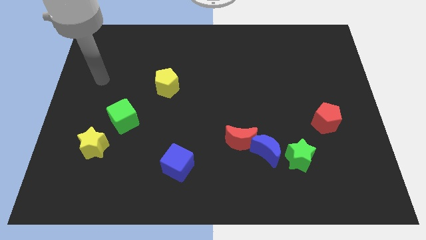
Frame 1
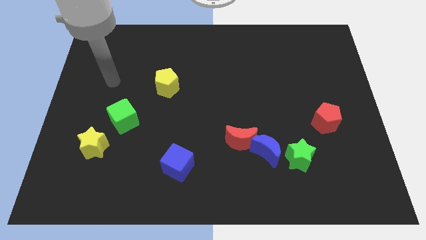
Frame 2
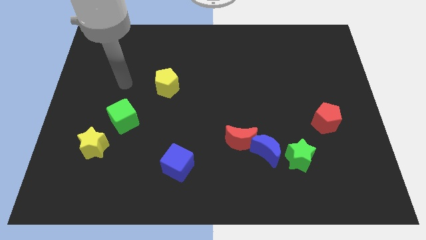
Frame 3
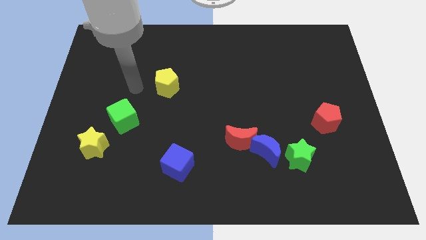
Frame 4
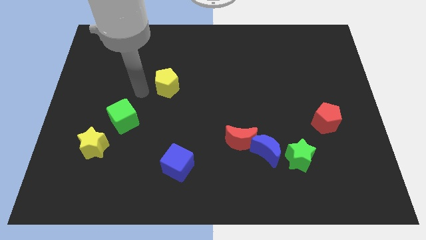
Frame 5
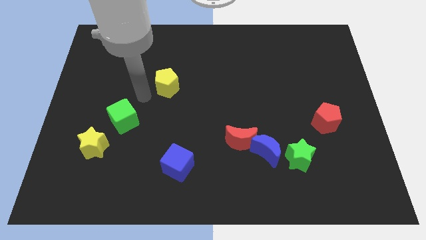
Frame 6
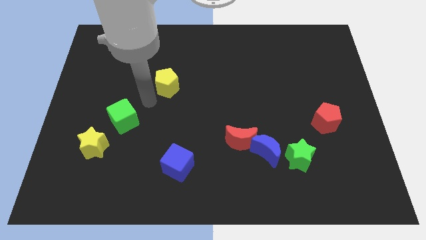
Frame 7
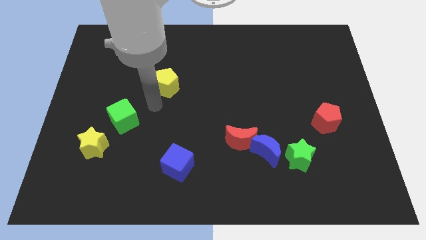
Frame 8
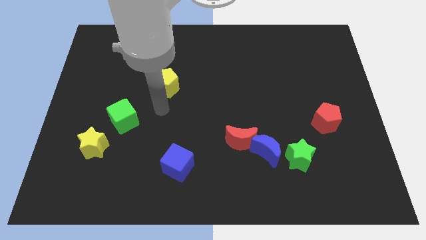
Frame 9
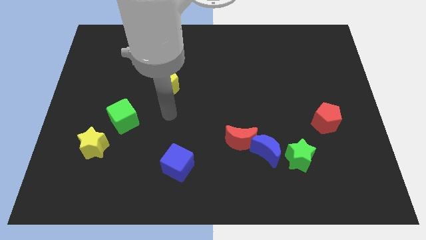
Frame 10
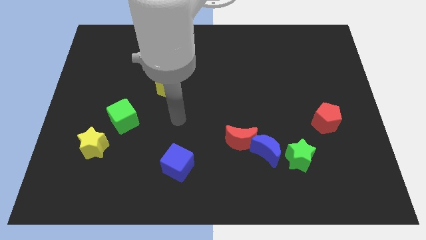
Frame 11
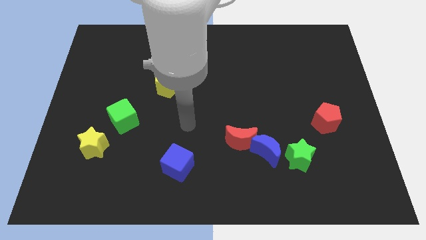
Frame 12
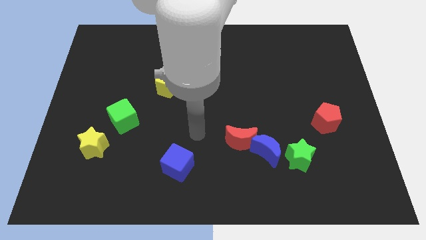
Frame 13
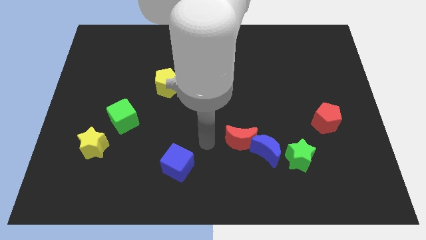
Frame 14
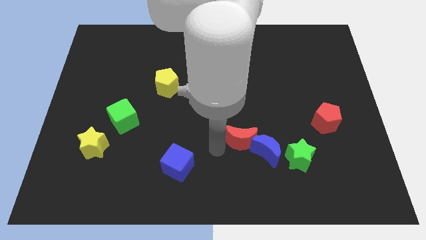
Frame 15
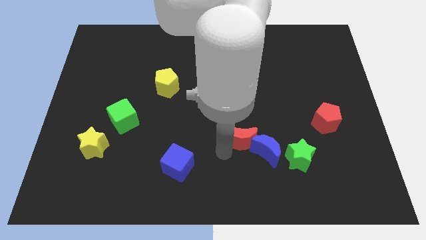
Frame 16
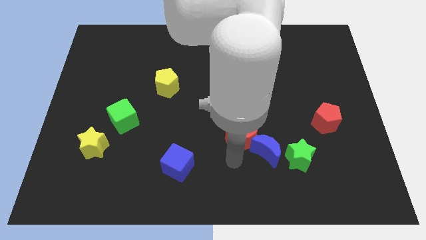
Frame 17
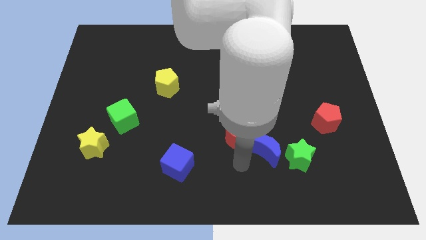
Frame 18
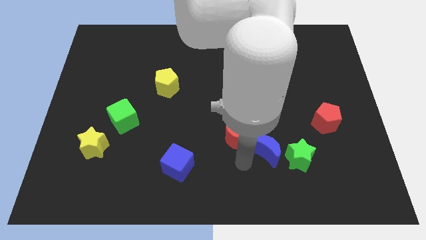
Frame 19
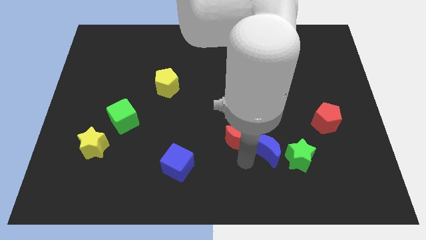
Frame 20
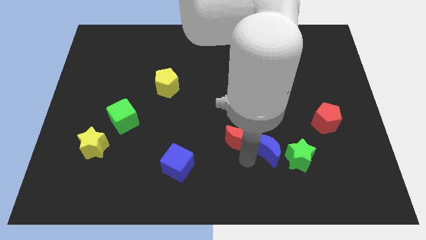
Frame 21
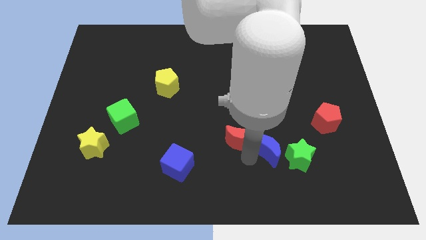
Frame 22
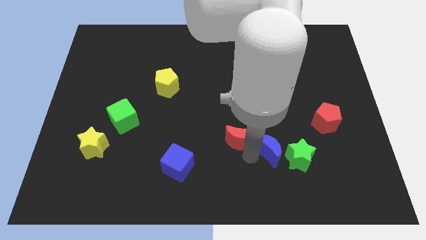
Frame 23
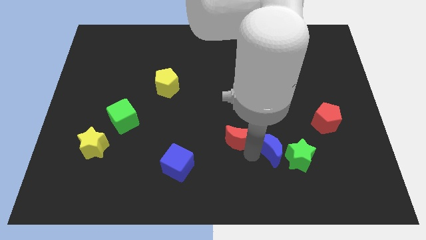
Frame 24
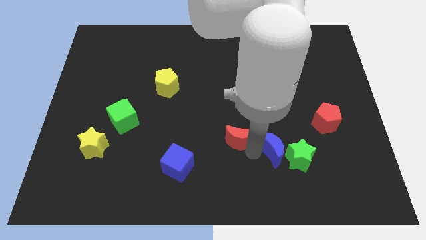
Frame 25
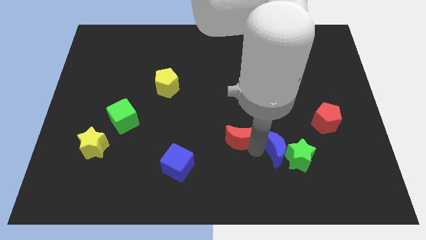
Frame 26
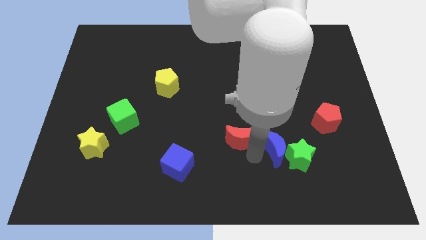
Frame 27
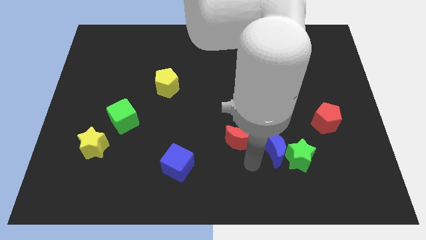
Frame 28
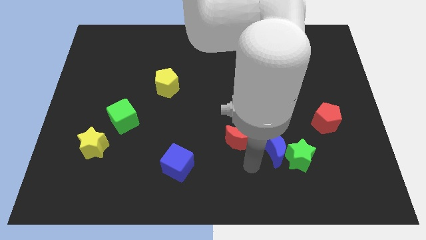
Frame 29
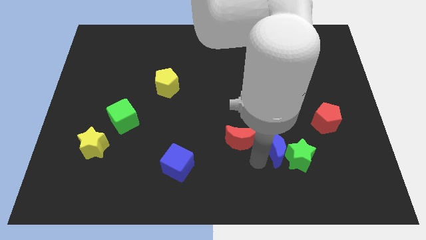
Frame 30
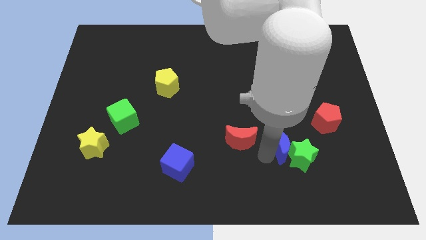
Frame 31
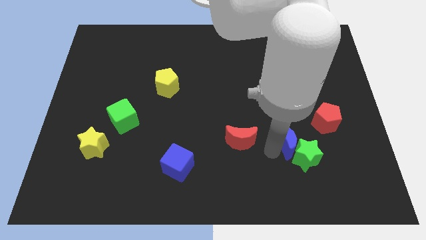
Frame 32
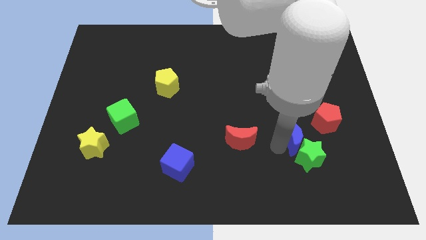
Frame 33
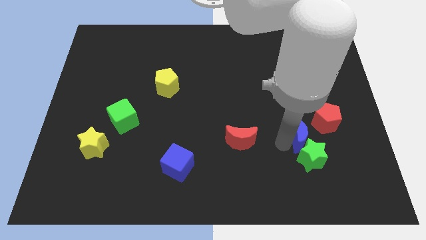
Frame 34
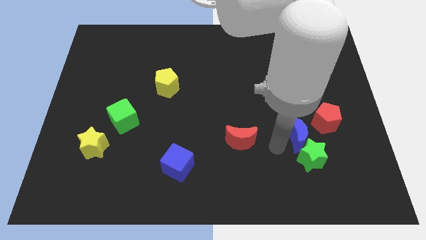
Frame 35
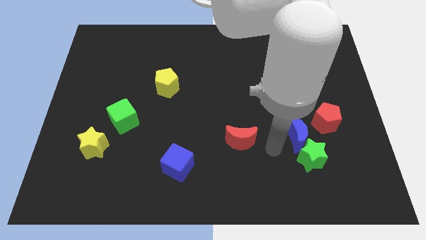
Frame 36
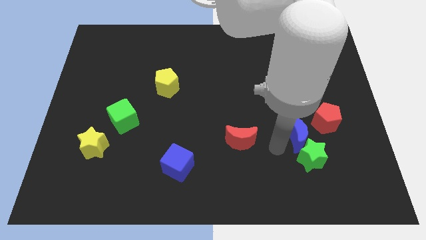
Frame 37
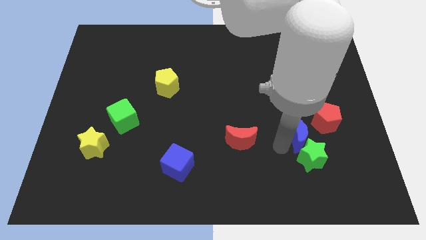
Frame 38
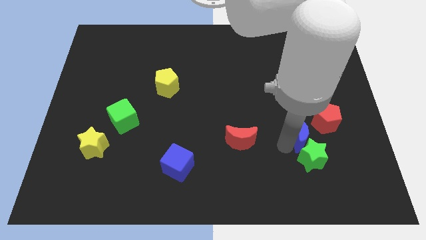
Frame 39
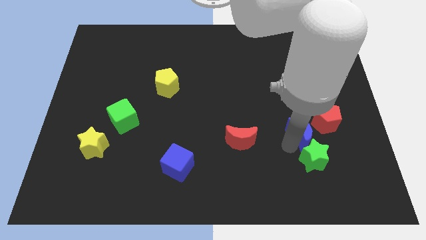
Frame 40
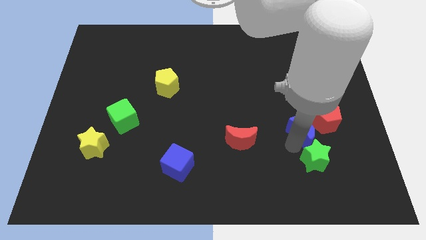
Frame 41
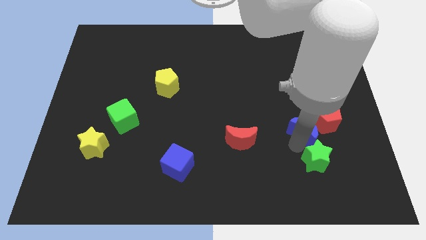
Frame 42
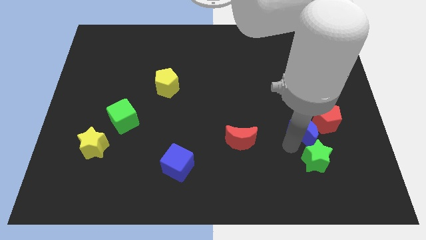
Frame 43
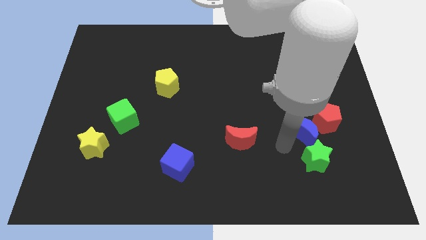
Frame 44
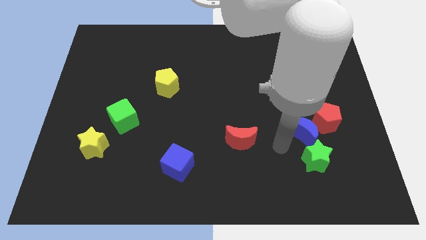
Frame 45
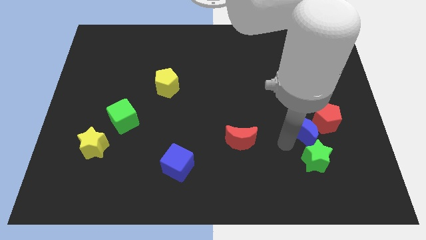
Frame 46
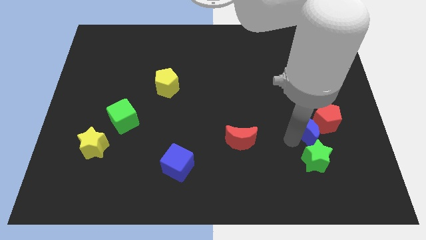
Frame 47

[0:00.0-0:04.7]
push the blue moon next to the red pentagon

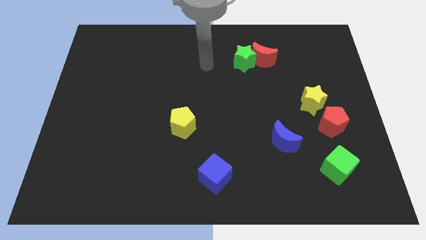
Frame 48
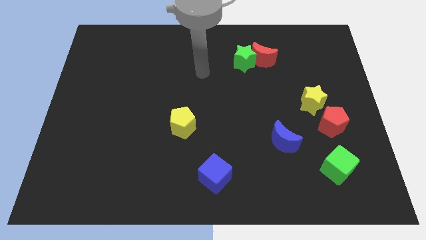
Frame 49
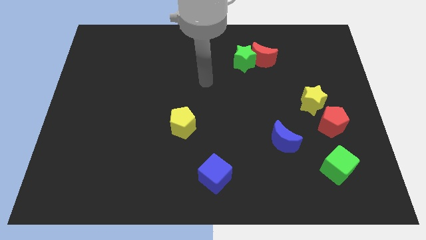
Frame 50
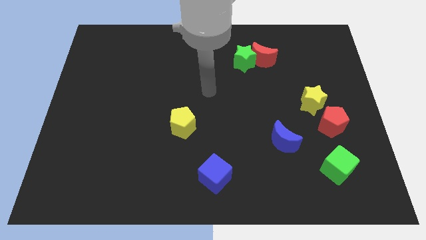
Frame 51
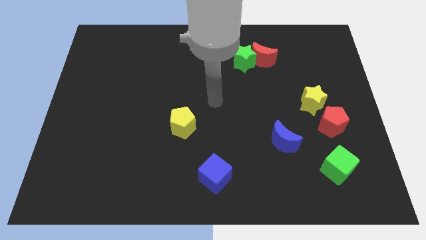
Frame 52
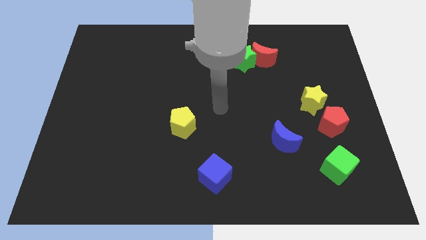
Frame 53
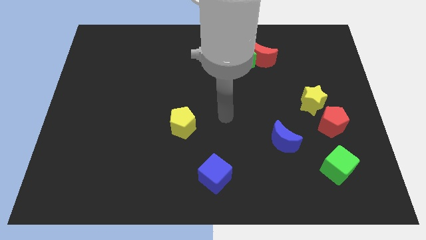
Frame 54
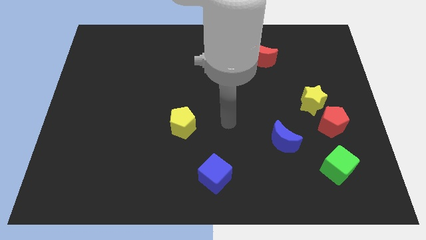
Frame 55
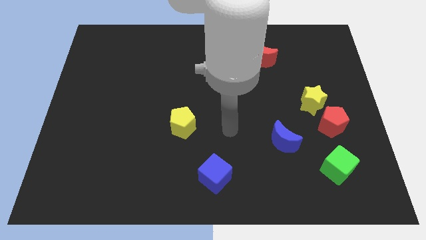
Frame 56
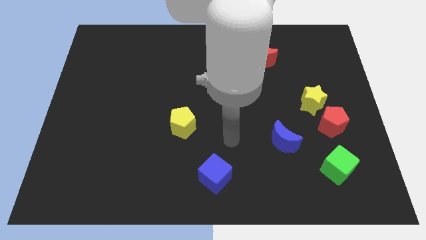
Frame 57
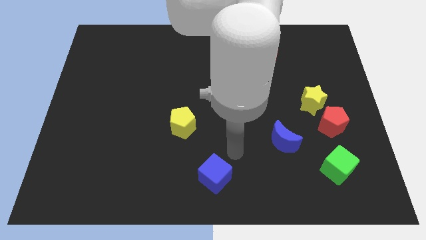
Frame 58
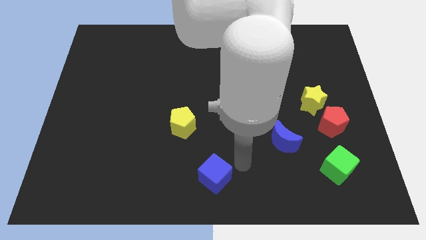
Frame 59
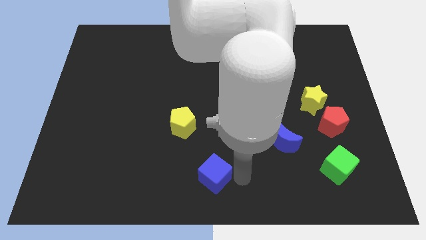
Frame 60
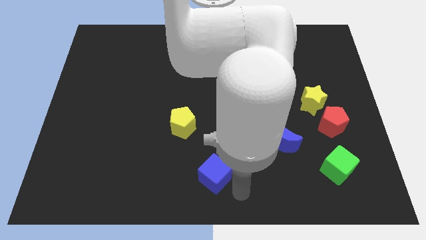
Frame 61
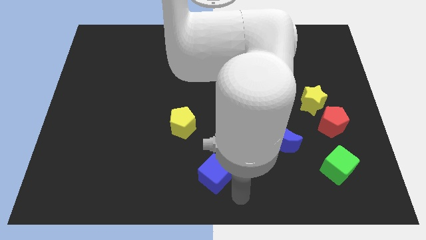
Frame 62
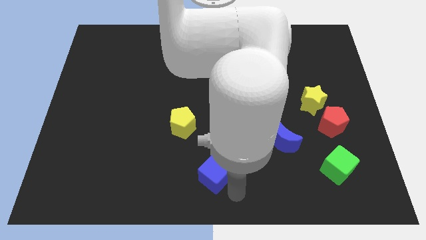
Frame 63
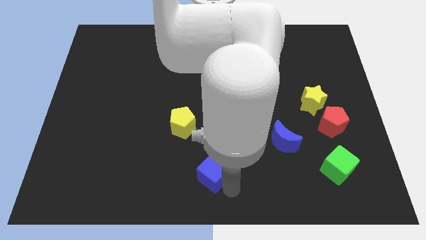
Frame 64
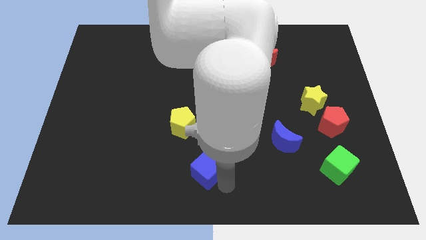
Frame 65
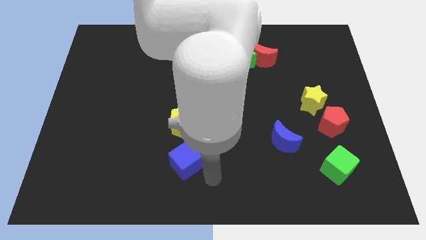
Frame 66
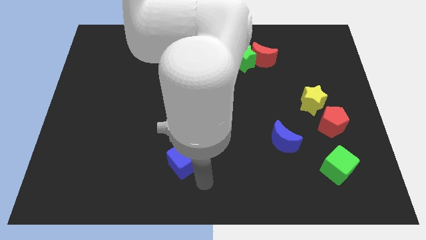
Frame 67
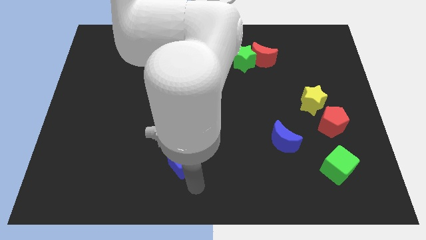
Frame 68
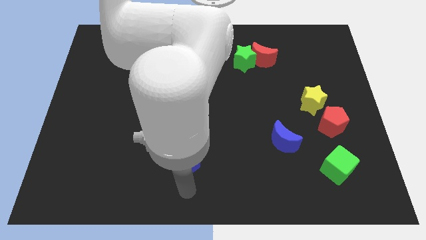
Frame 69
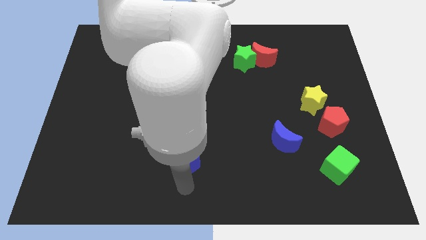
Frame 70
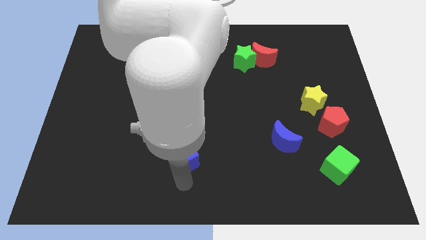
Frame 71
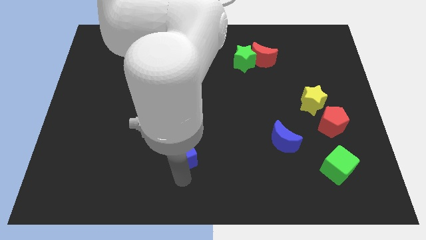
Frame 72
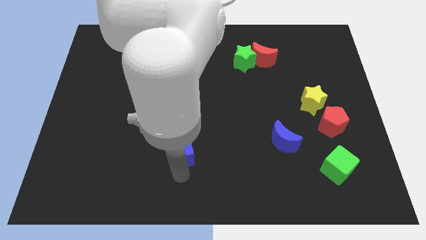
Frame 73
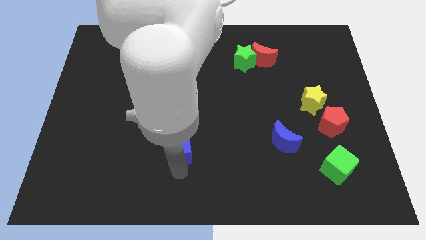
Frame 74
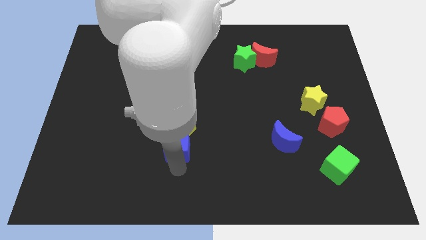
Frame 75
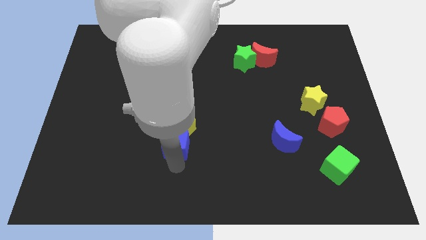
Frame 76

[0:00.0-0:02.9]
put the blue cube towards the yellow pentagon

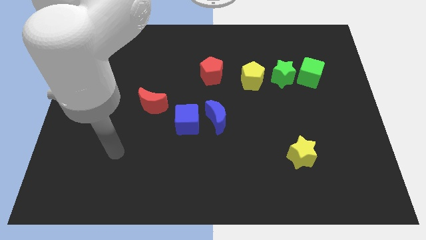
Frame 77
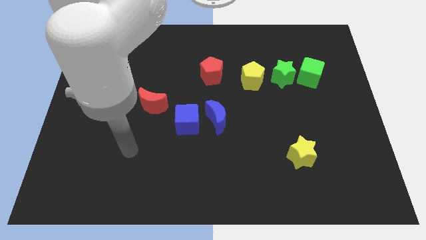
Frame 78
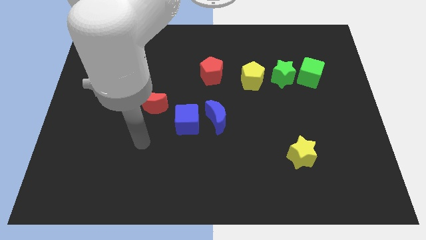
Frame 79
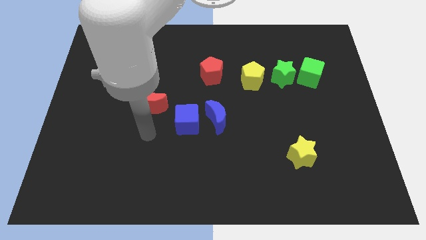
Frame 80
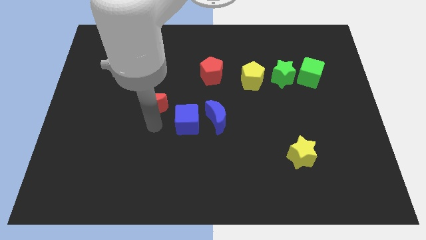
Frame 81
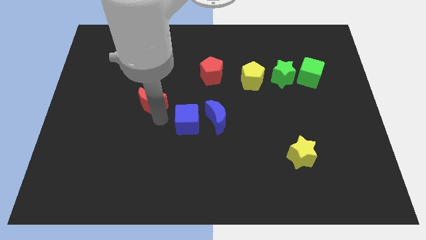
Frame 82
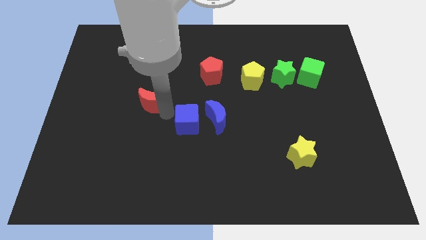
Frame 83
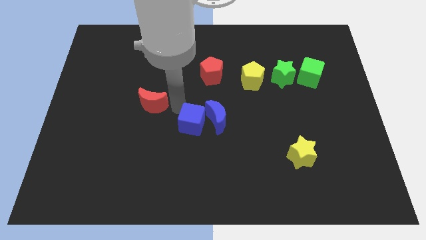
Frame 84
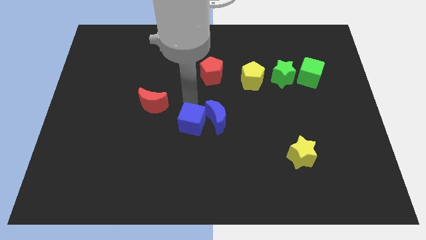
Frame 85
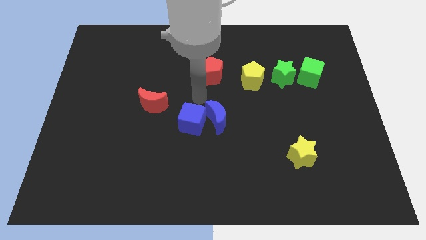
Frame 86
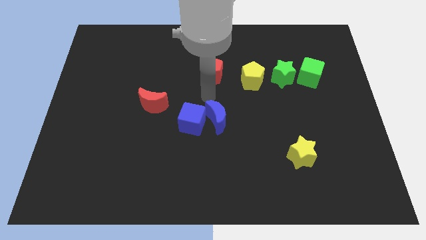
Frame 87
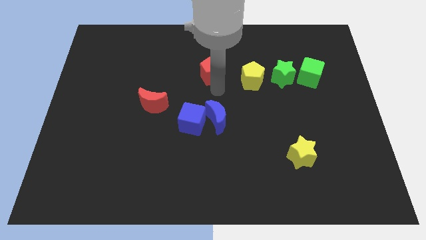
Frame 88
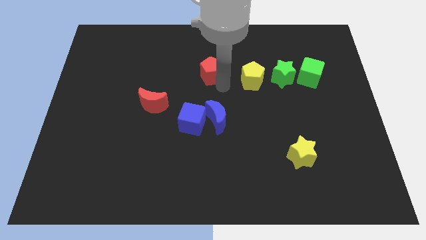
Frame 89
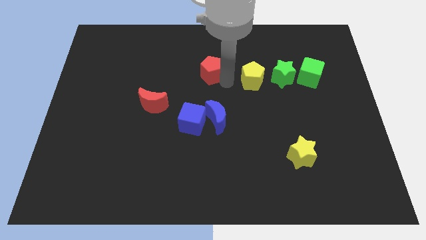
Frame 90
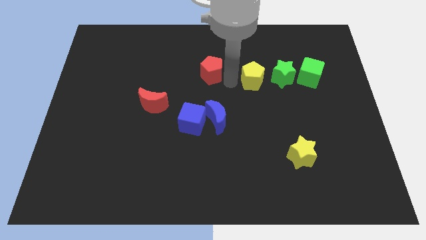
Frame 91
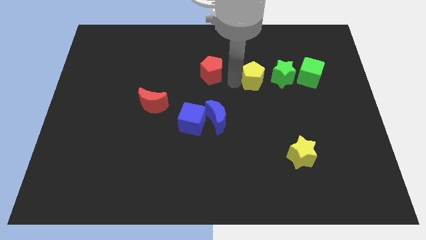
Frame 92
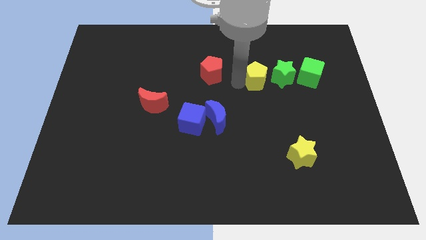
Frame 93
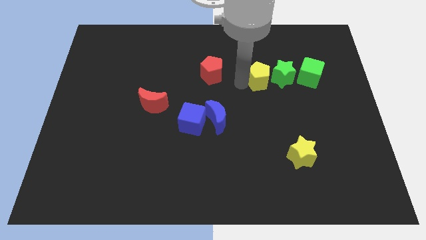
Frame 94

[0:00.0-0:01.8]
push the yellow pentagon towards the green star
